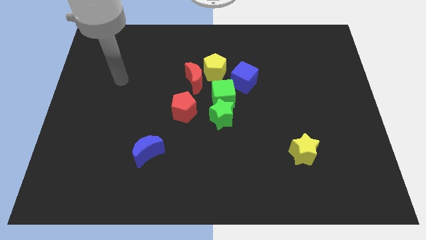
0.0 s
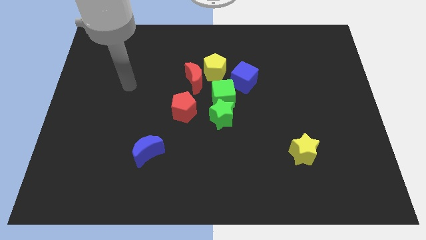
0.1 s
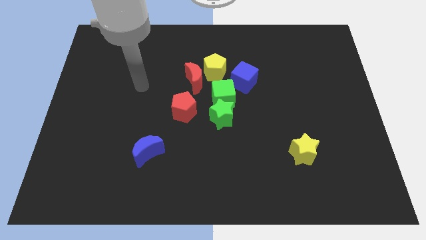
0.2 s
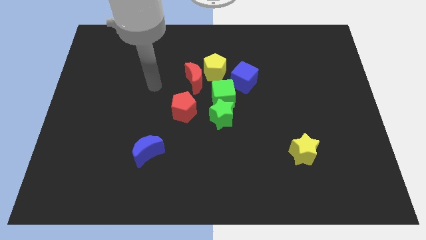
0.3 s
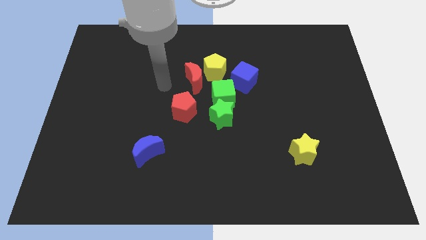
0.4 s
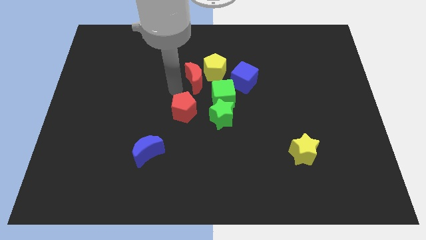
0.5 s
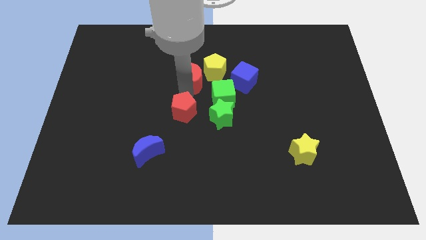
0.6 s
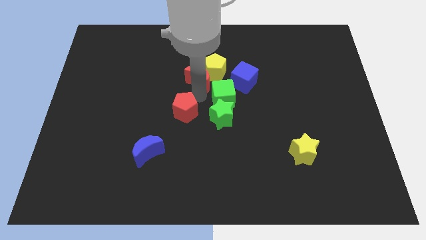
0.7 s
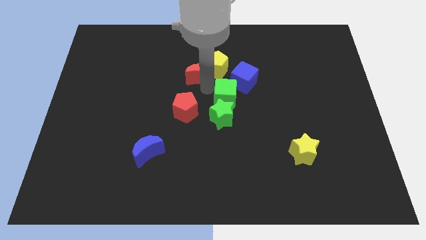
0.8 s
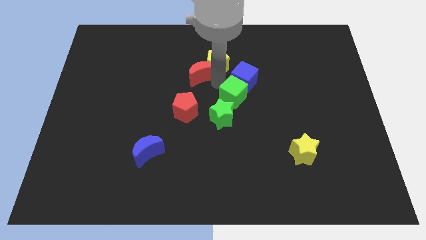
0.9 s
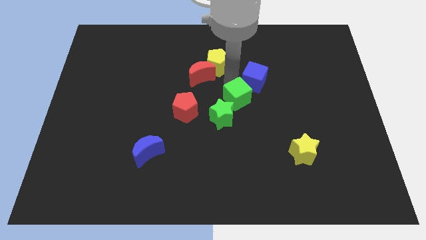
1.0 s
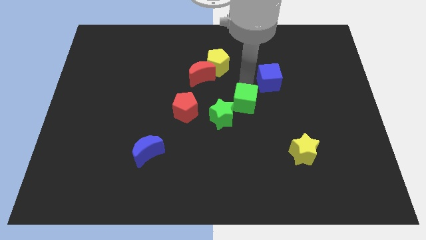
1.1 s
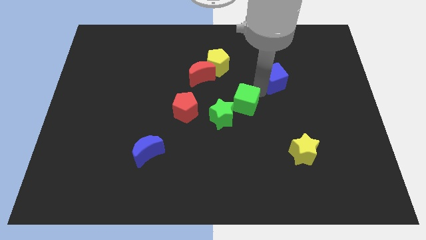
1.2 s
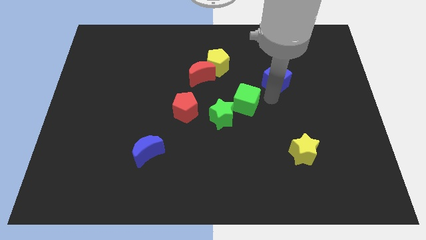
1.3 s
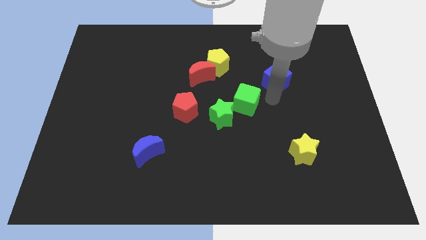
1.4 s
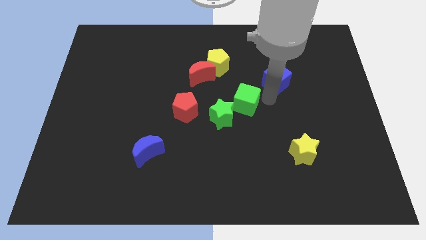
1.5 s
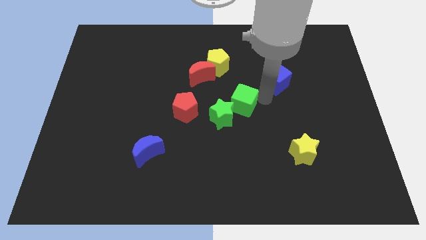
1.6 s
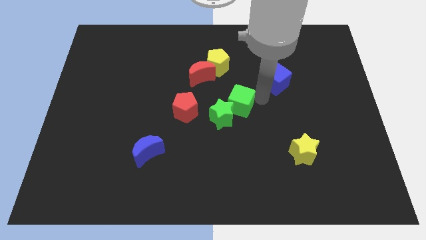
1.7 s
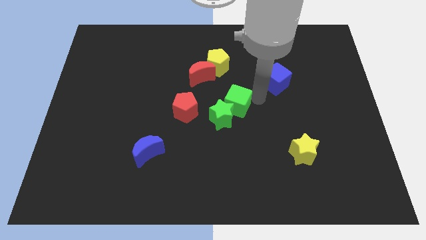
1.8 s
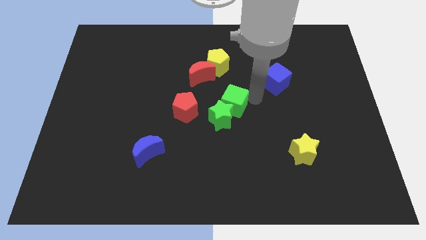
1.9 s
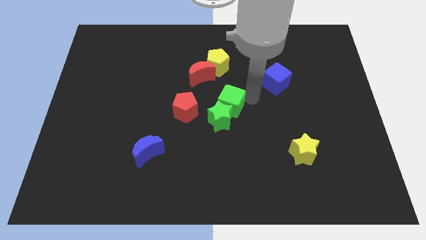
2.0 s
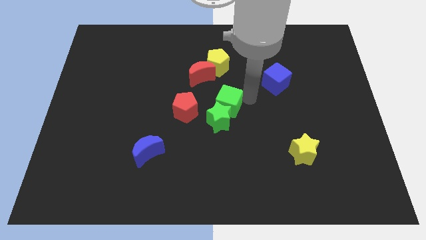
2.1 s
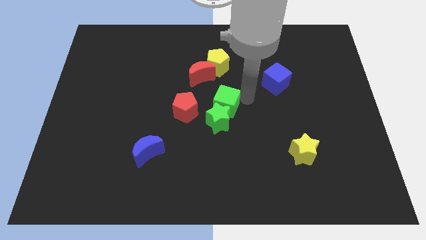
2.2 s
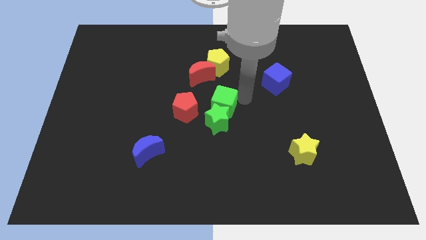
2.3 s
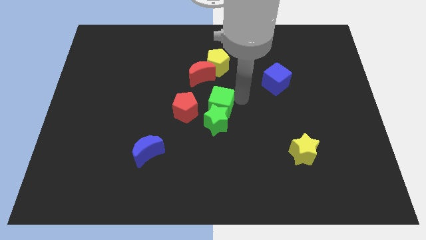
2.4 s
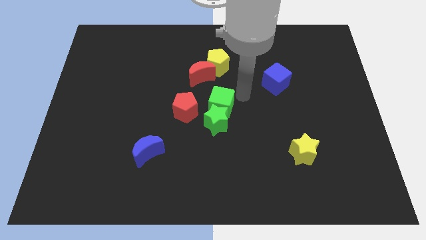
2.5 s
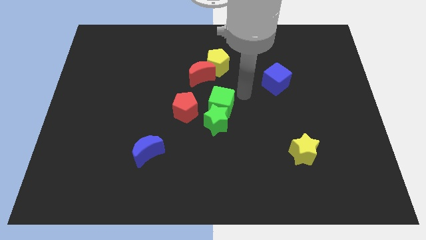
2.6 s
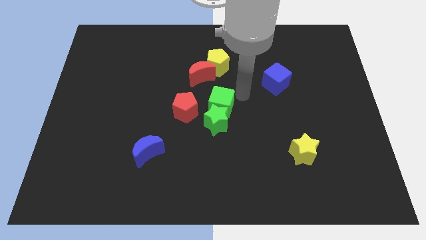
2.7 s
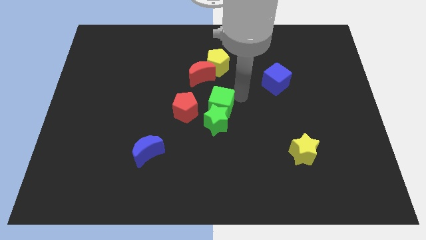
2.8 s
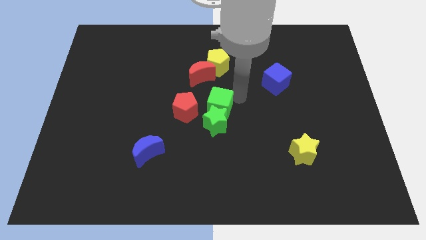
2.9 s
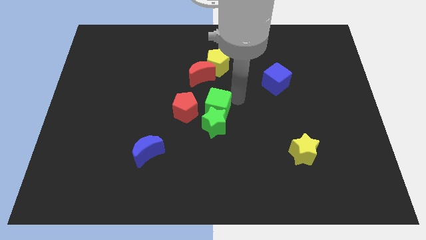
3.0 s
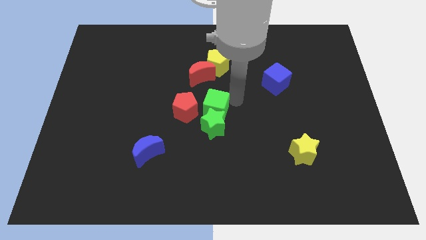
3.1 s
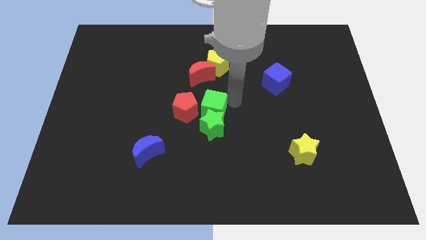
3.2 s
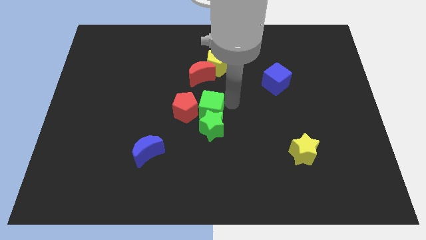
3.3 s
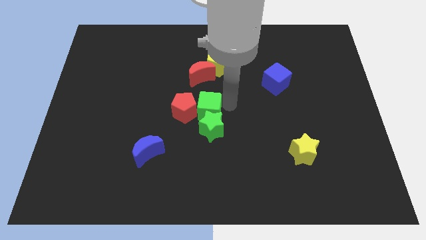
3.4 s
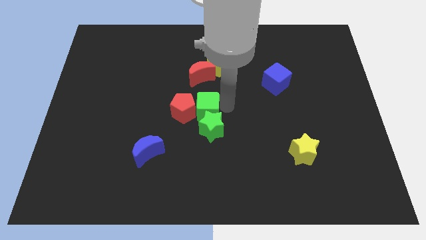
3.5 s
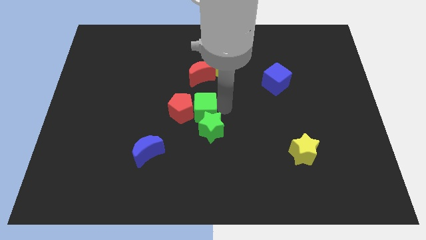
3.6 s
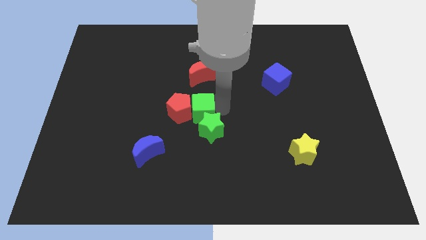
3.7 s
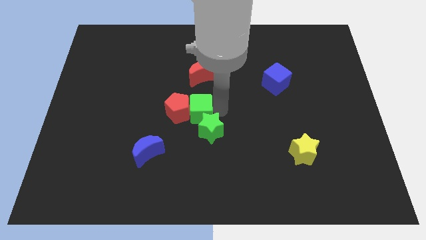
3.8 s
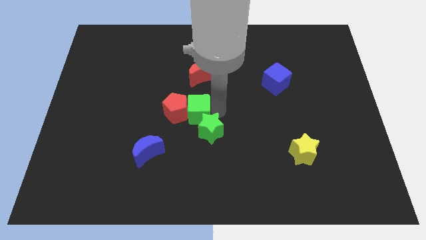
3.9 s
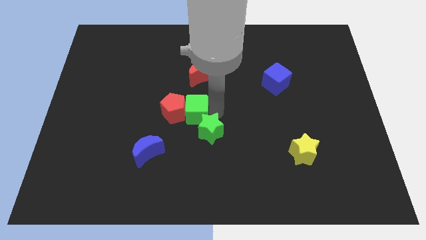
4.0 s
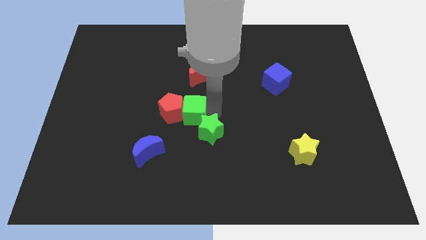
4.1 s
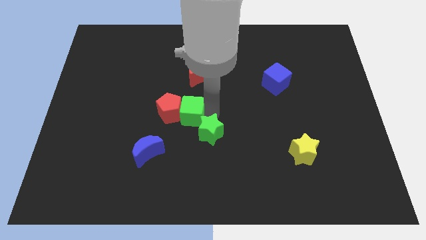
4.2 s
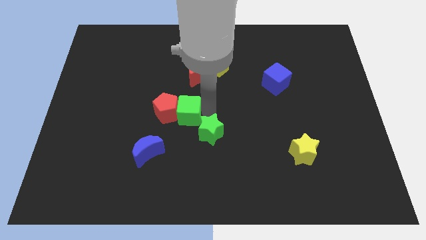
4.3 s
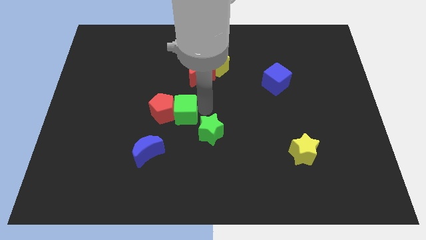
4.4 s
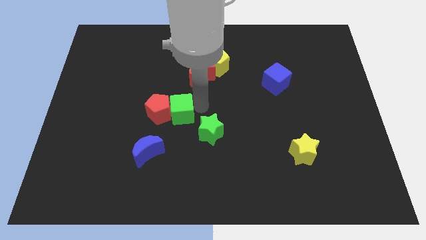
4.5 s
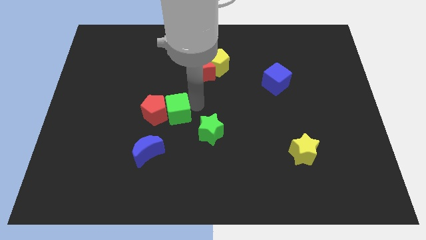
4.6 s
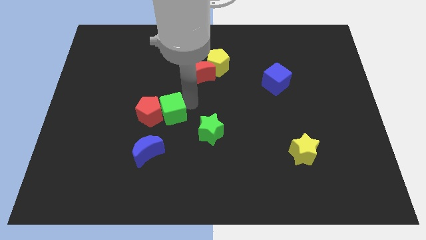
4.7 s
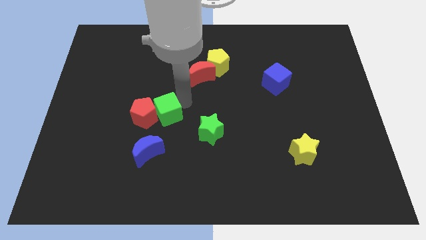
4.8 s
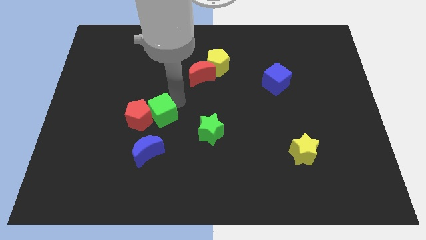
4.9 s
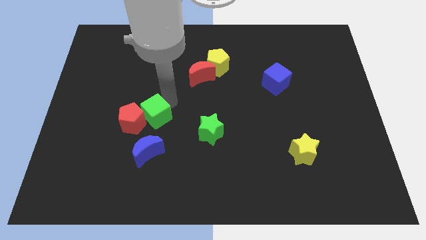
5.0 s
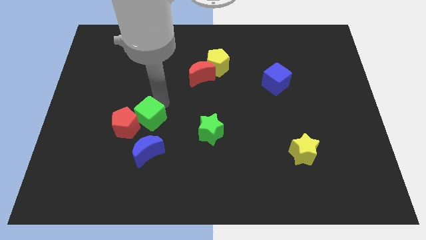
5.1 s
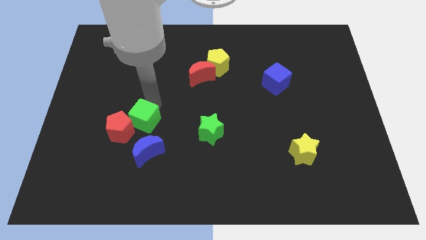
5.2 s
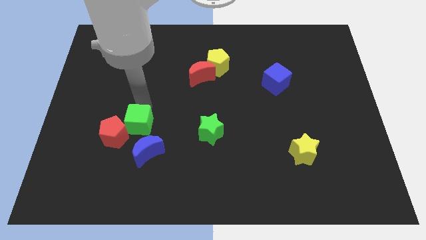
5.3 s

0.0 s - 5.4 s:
move the green cube to the top left of the blue moon

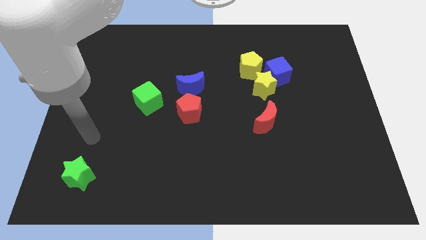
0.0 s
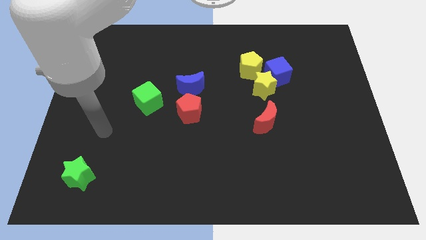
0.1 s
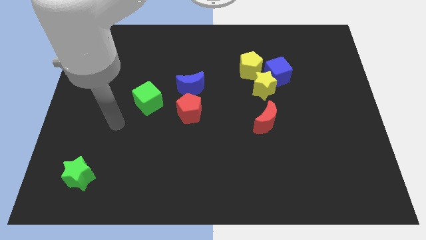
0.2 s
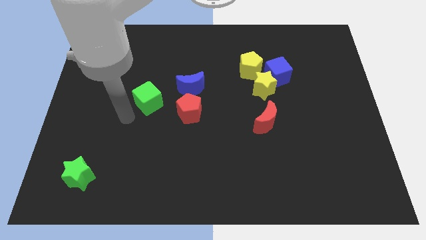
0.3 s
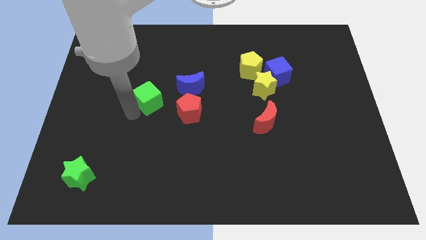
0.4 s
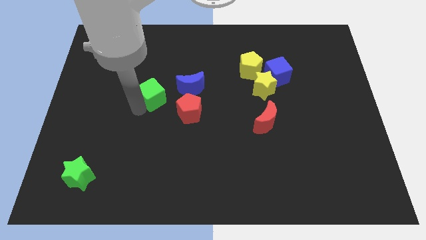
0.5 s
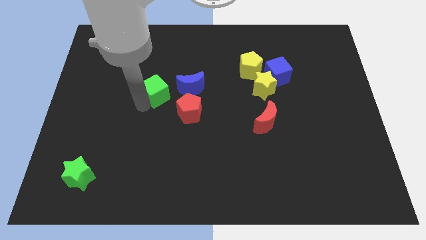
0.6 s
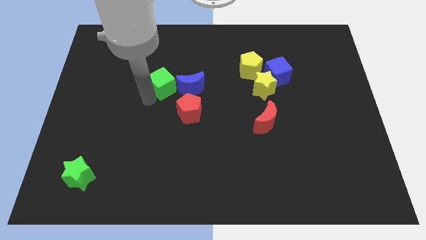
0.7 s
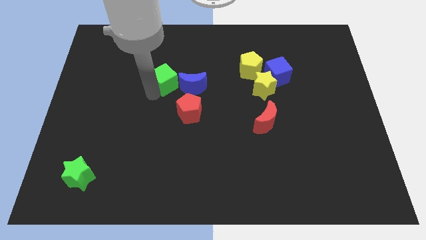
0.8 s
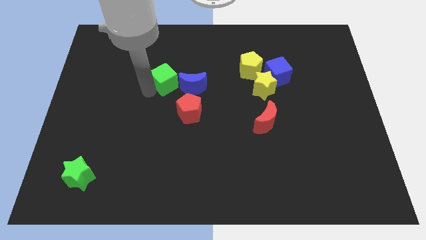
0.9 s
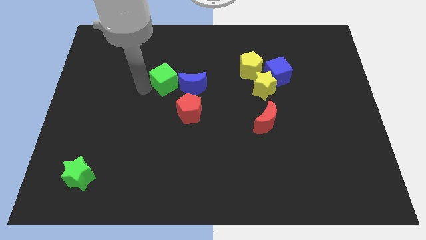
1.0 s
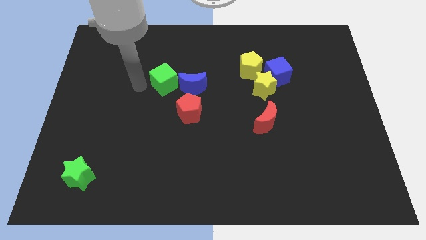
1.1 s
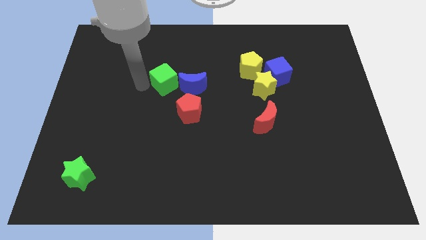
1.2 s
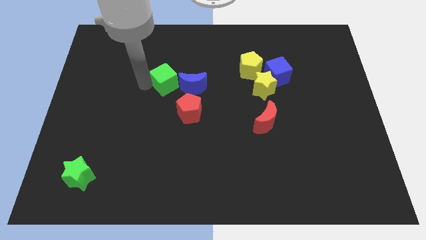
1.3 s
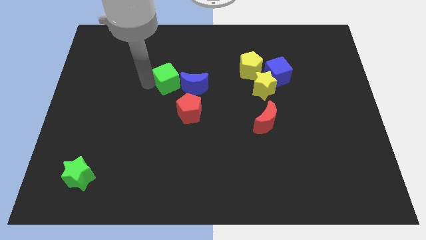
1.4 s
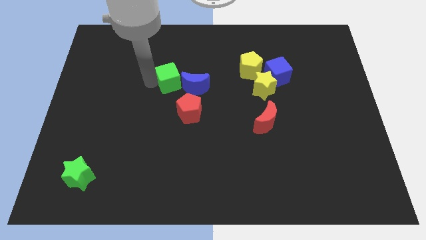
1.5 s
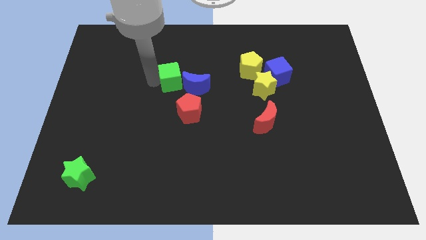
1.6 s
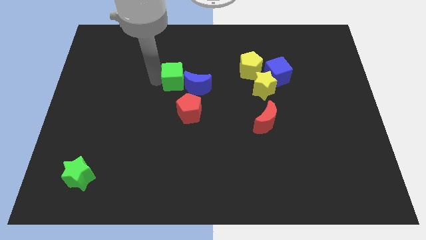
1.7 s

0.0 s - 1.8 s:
push the green cube to the top of the red pentagon

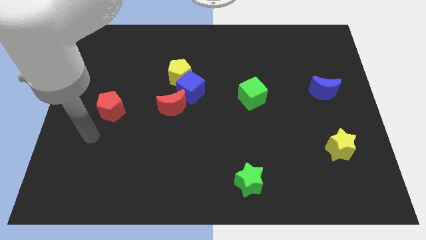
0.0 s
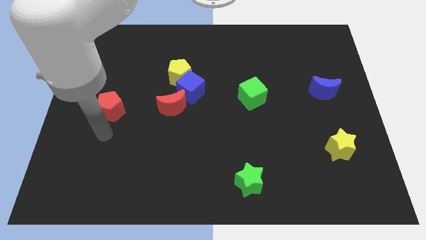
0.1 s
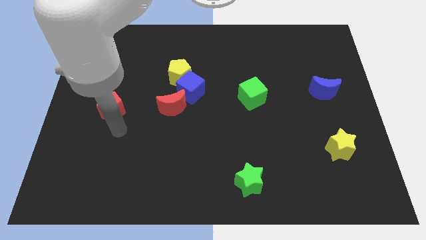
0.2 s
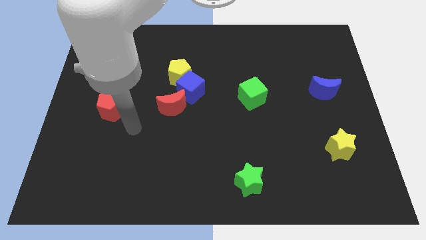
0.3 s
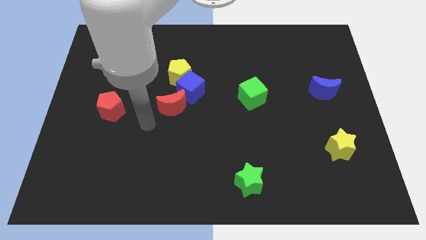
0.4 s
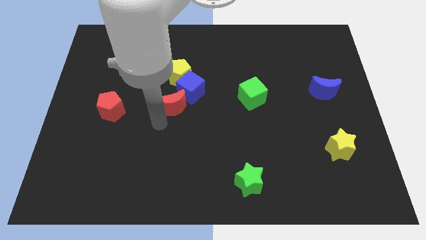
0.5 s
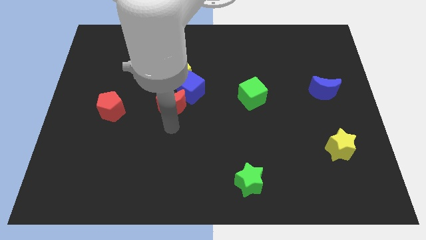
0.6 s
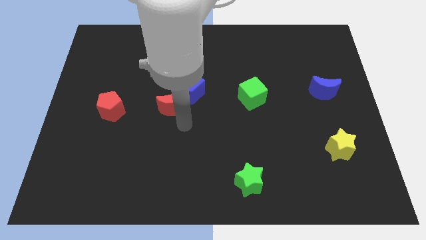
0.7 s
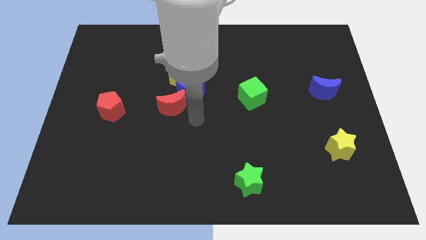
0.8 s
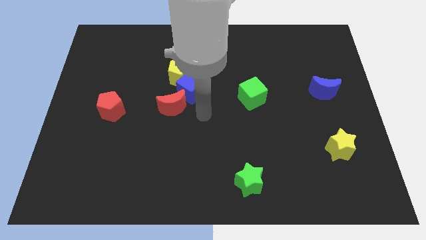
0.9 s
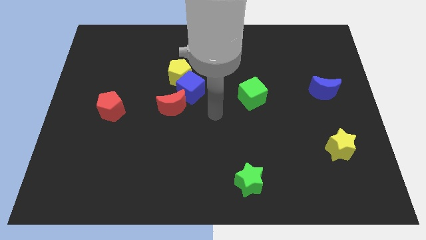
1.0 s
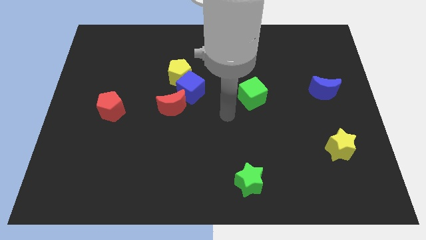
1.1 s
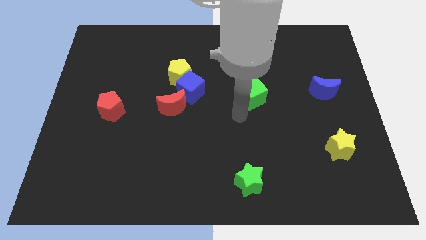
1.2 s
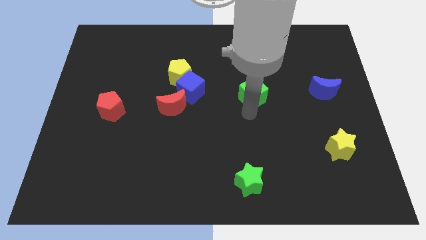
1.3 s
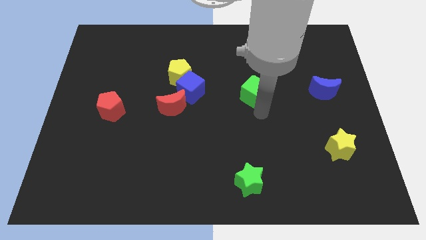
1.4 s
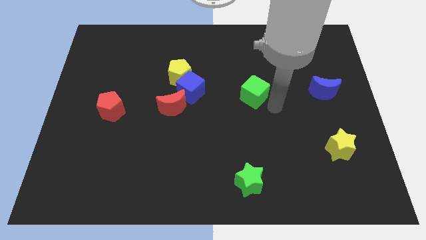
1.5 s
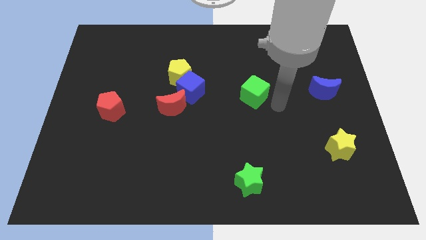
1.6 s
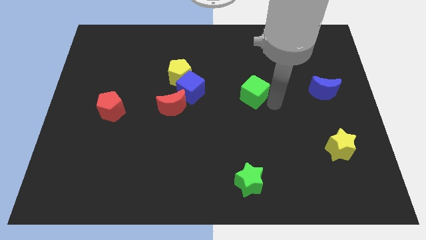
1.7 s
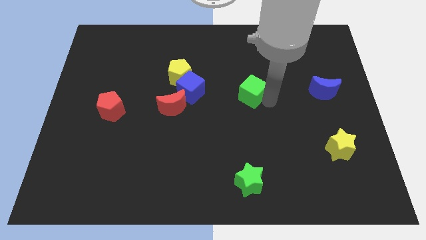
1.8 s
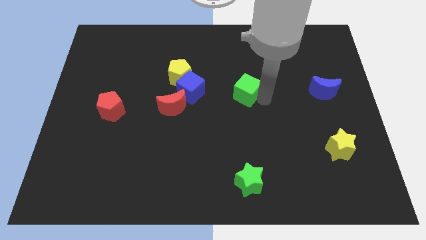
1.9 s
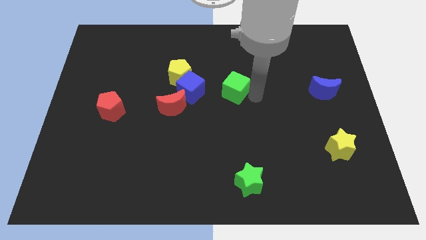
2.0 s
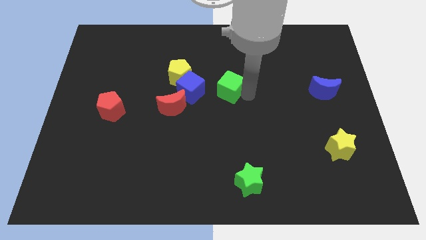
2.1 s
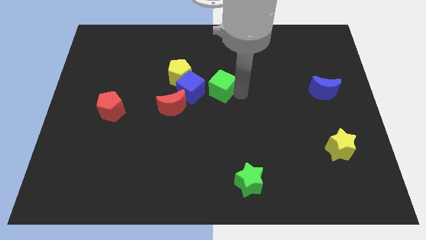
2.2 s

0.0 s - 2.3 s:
slide the green cube diagonally up and to the right of the blue cube
